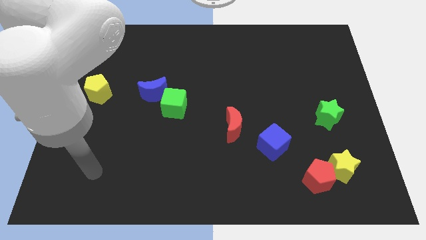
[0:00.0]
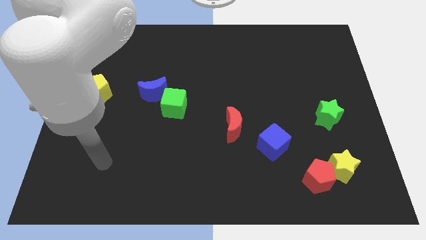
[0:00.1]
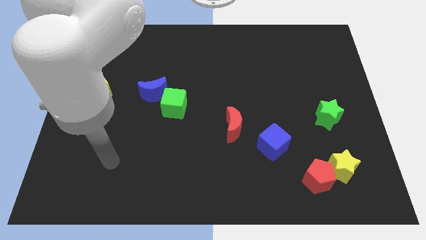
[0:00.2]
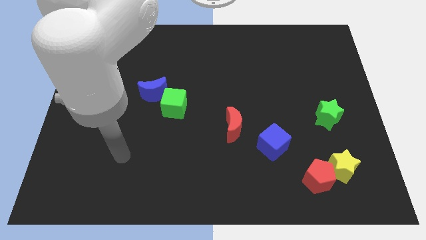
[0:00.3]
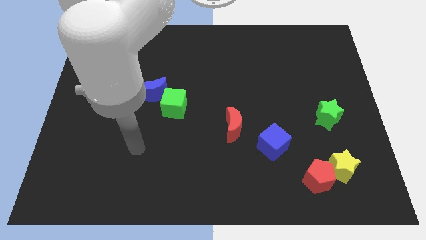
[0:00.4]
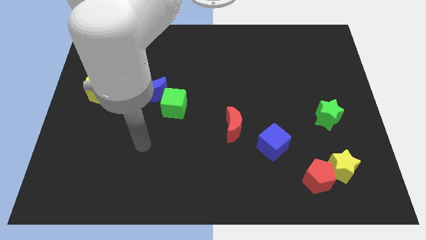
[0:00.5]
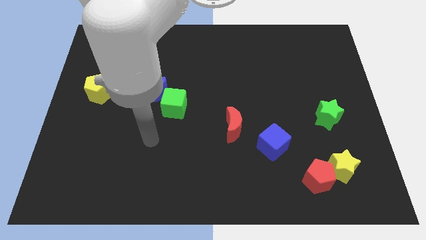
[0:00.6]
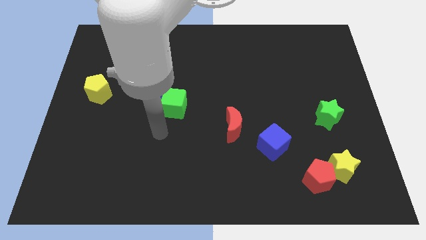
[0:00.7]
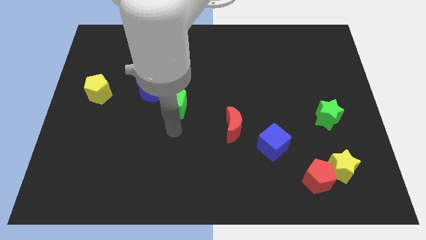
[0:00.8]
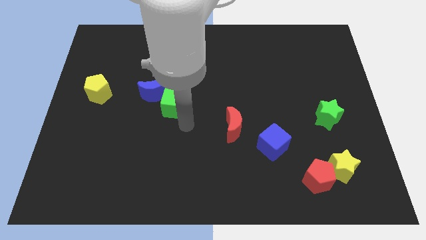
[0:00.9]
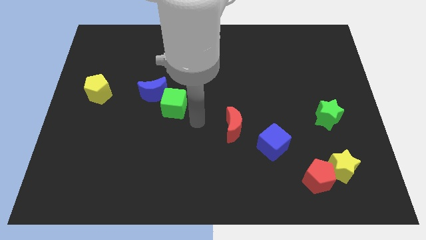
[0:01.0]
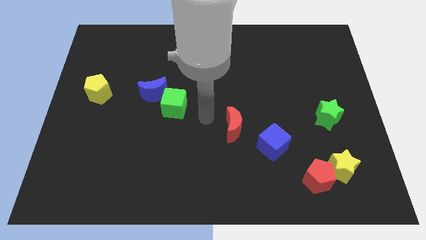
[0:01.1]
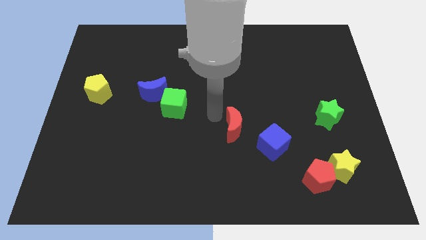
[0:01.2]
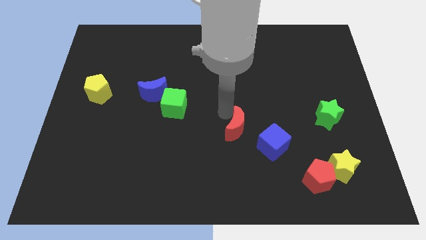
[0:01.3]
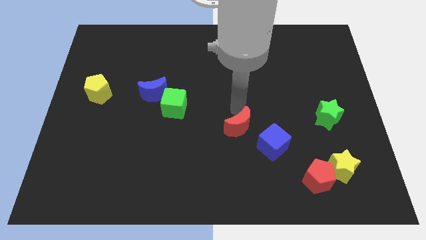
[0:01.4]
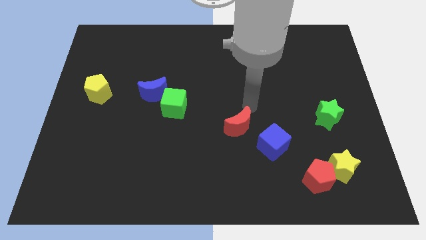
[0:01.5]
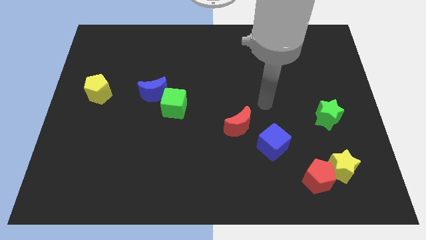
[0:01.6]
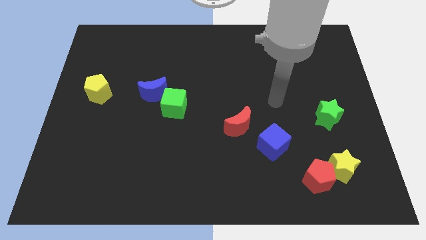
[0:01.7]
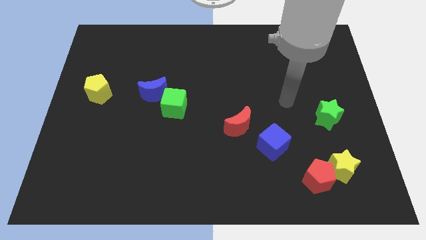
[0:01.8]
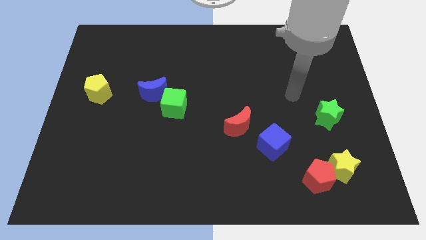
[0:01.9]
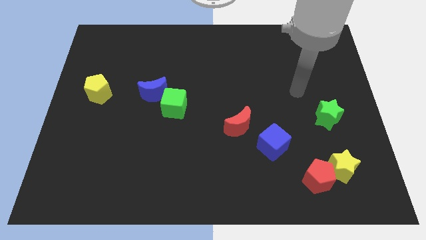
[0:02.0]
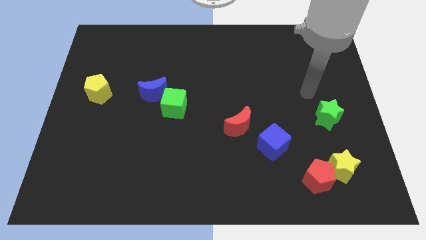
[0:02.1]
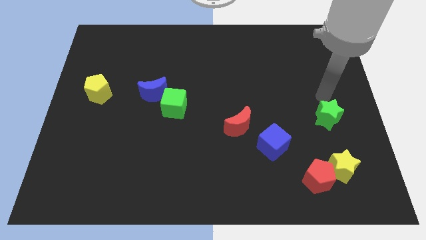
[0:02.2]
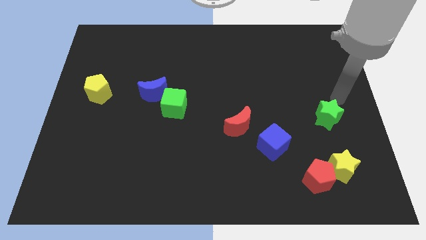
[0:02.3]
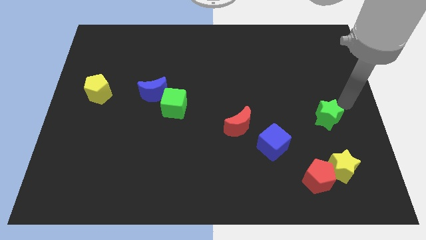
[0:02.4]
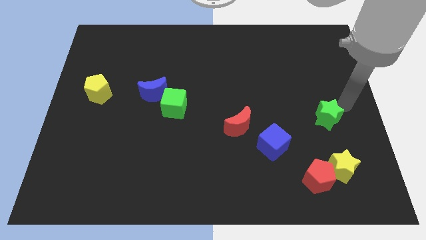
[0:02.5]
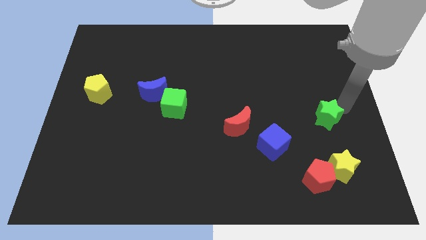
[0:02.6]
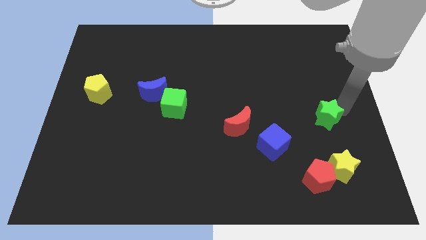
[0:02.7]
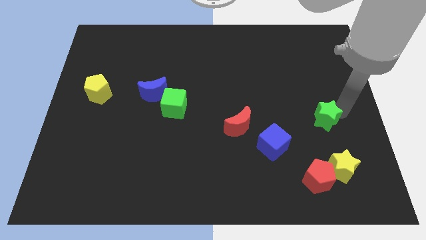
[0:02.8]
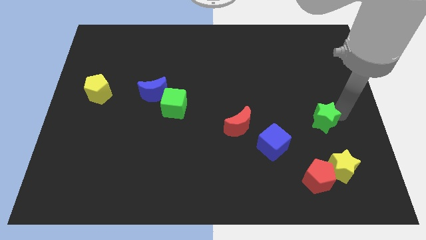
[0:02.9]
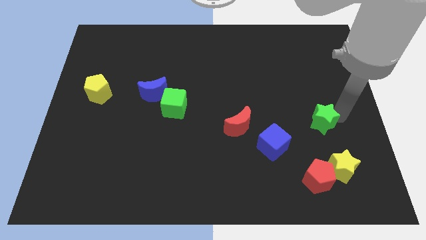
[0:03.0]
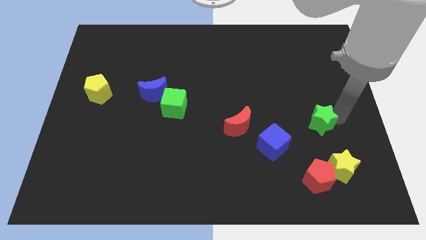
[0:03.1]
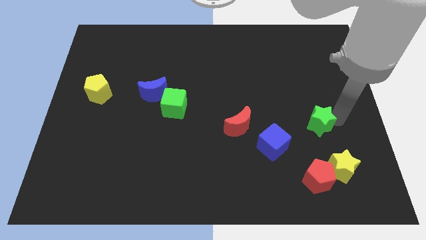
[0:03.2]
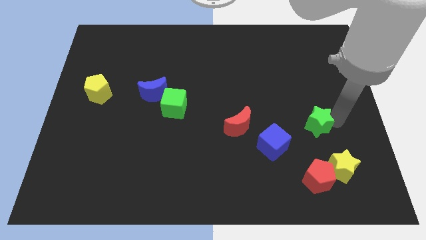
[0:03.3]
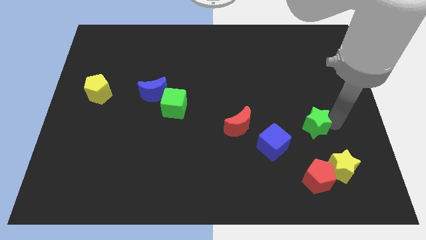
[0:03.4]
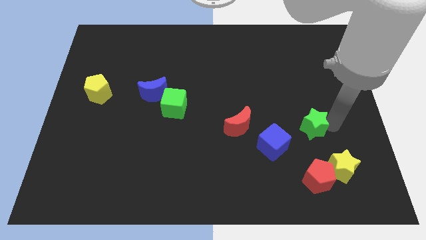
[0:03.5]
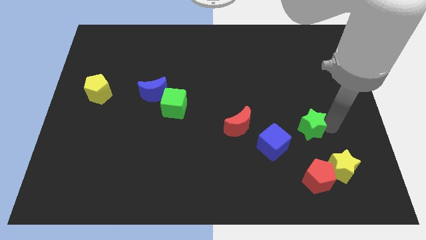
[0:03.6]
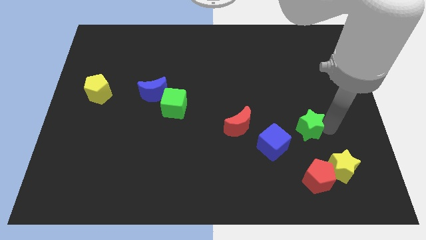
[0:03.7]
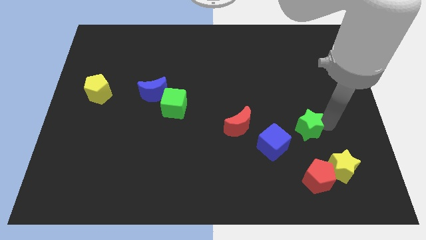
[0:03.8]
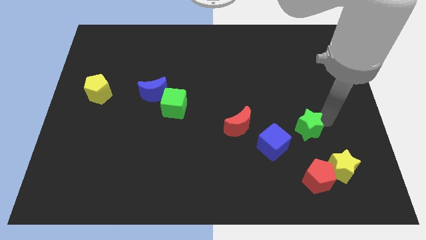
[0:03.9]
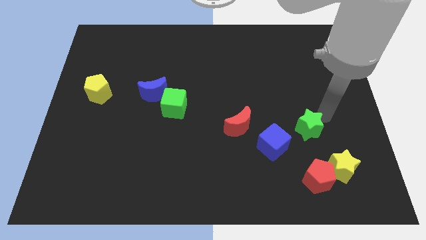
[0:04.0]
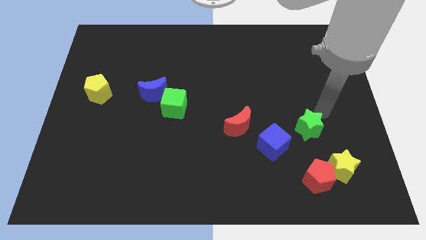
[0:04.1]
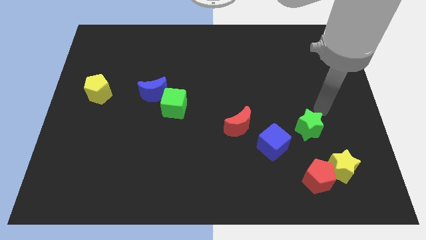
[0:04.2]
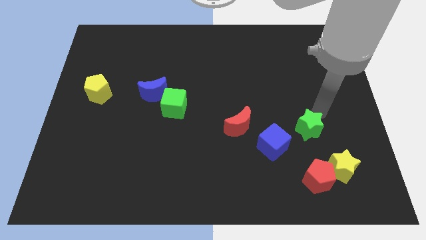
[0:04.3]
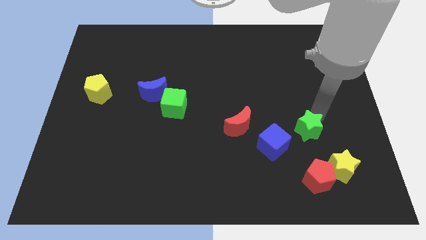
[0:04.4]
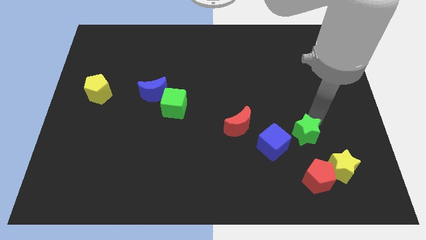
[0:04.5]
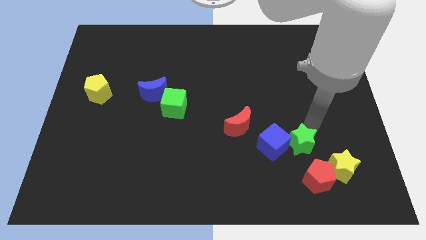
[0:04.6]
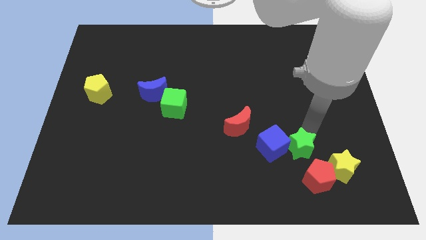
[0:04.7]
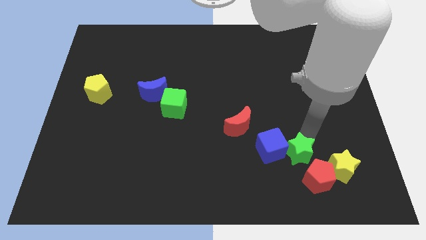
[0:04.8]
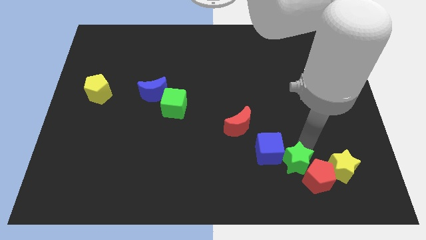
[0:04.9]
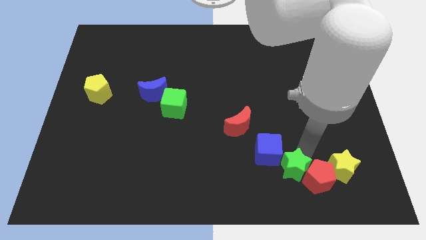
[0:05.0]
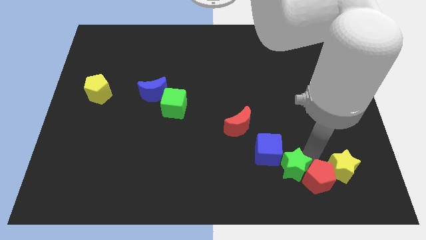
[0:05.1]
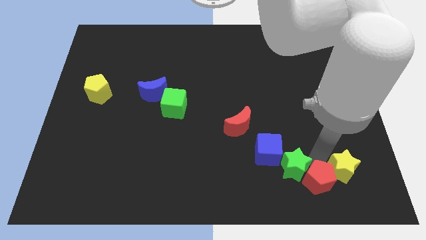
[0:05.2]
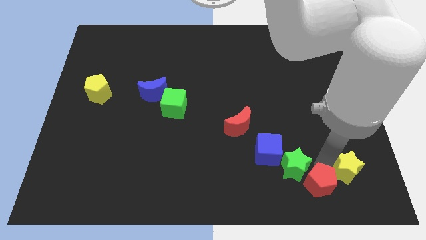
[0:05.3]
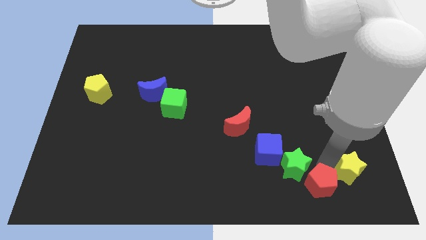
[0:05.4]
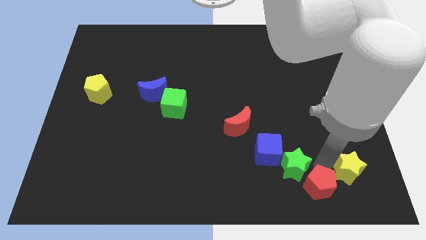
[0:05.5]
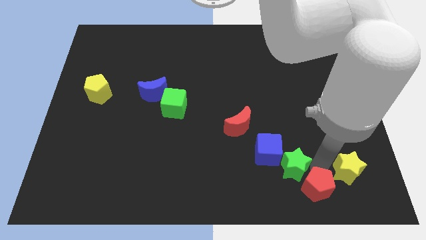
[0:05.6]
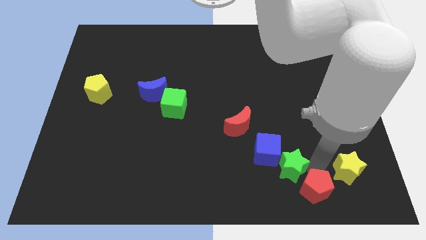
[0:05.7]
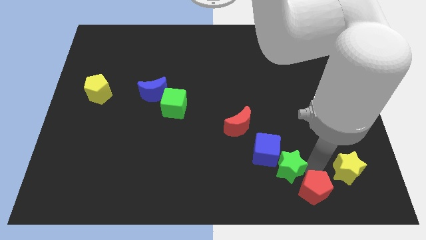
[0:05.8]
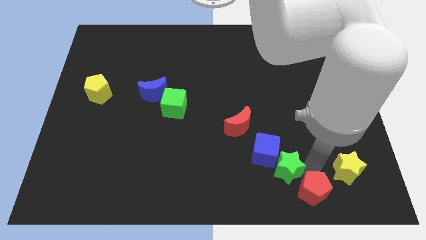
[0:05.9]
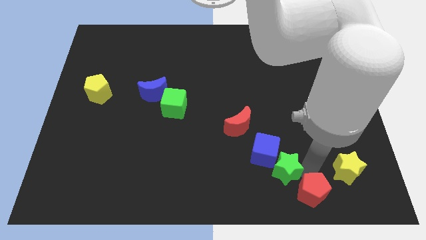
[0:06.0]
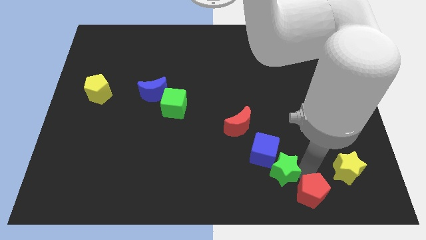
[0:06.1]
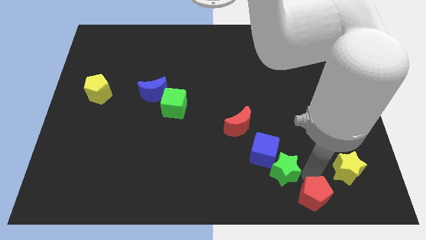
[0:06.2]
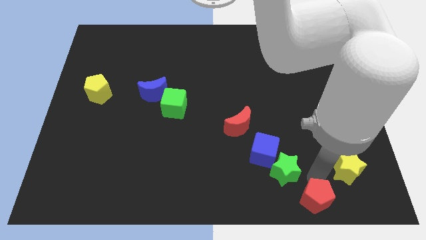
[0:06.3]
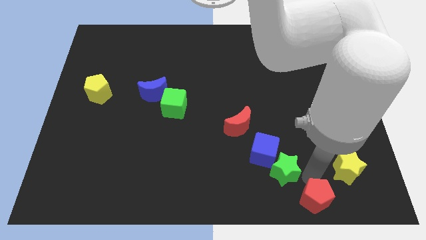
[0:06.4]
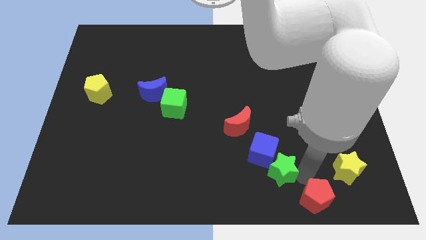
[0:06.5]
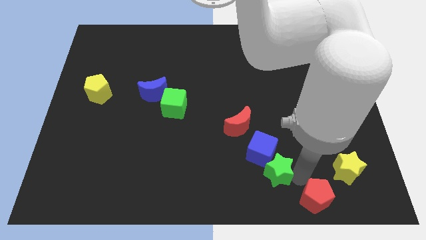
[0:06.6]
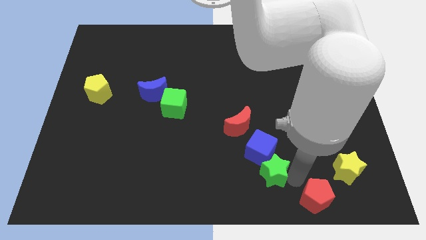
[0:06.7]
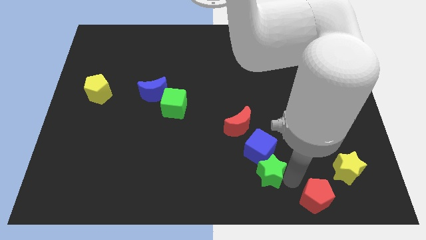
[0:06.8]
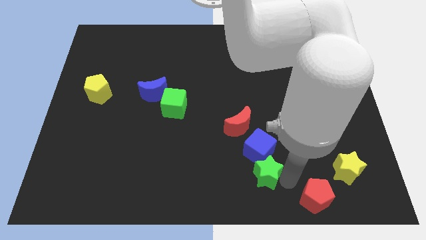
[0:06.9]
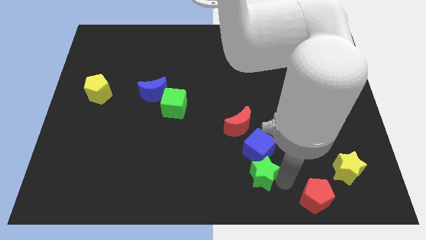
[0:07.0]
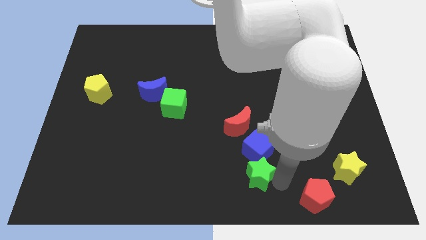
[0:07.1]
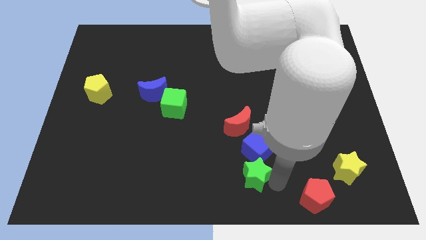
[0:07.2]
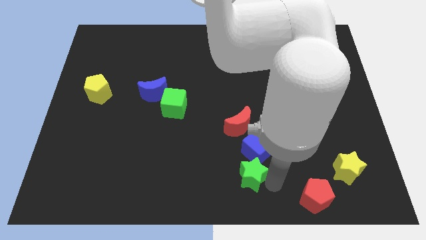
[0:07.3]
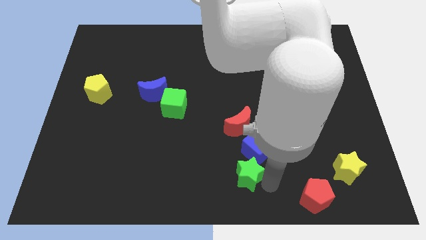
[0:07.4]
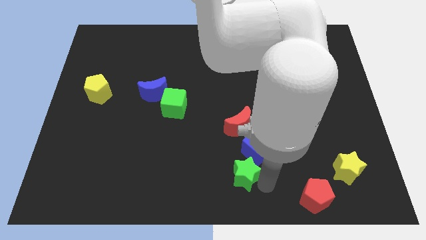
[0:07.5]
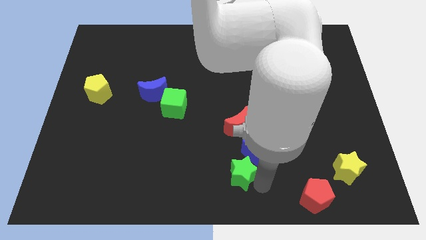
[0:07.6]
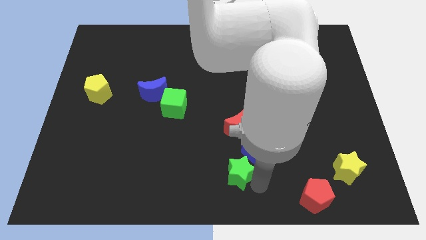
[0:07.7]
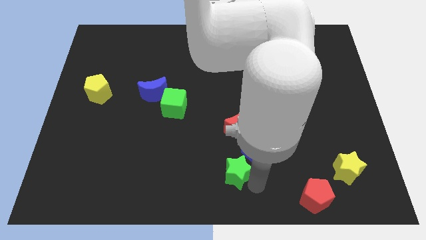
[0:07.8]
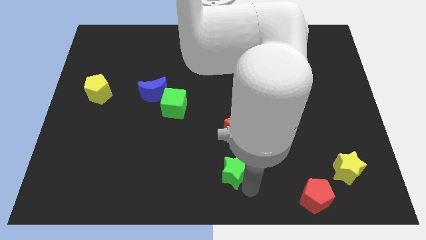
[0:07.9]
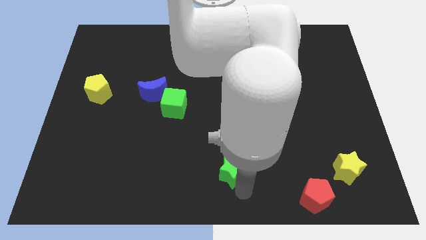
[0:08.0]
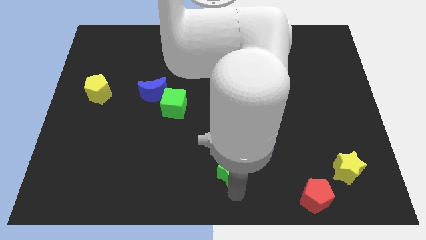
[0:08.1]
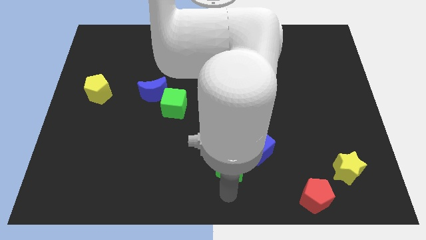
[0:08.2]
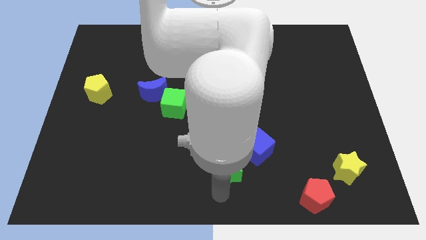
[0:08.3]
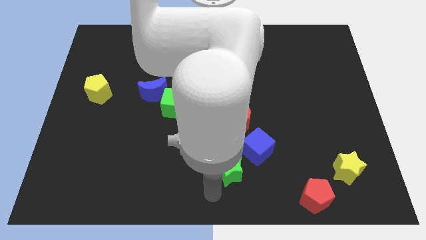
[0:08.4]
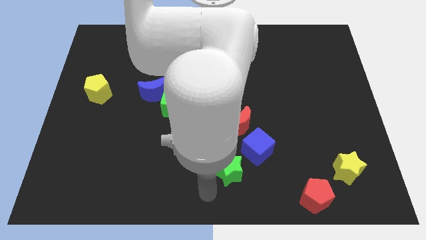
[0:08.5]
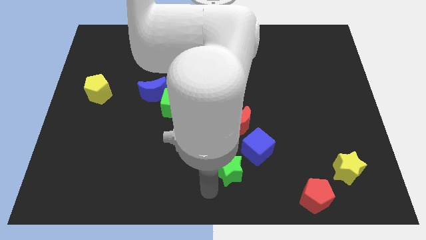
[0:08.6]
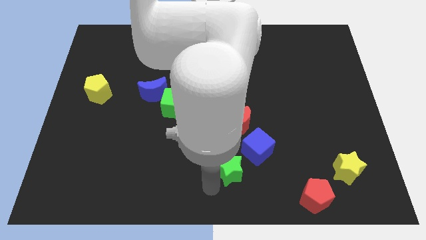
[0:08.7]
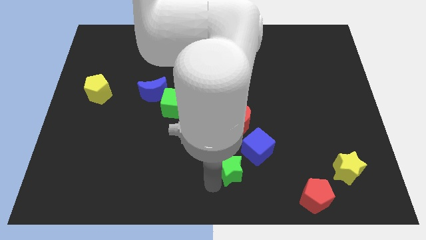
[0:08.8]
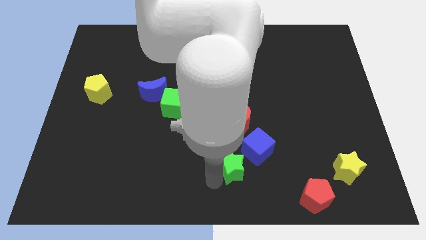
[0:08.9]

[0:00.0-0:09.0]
slide the green star to the left of the blue cube
